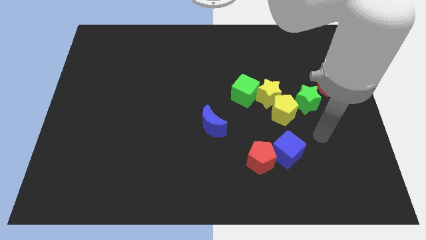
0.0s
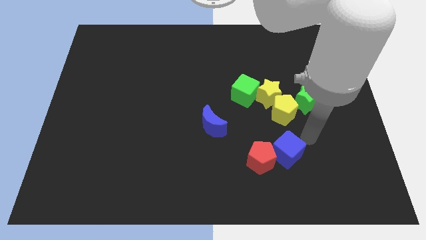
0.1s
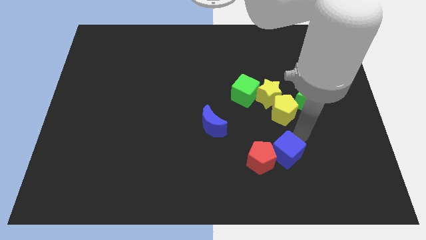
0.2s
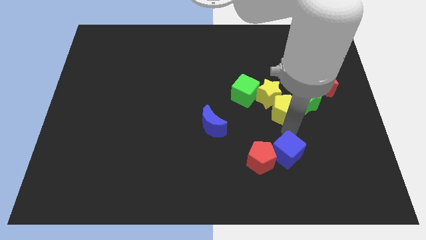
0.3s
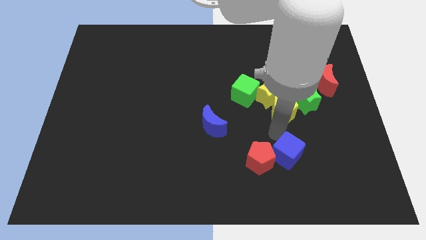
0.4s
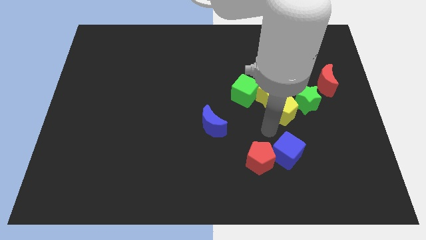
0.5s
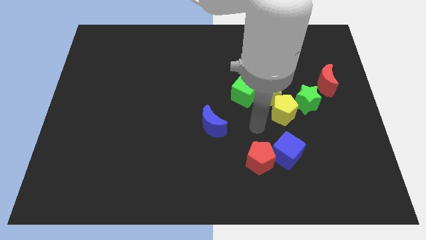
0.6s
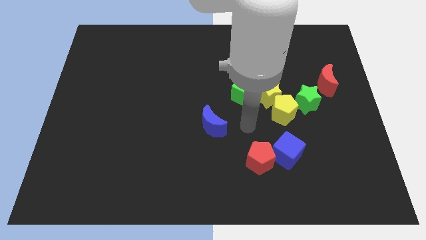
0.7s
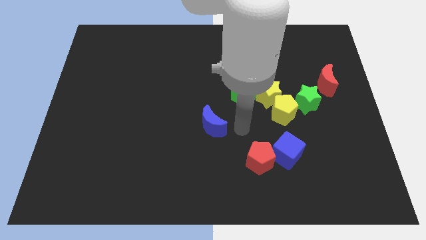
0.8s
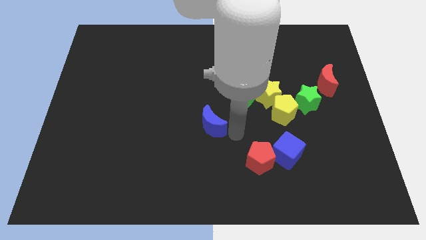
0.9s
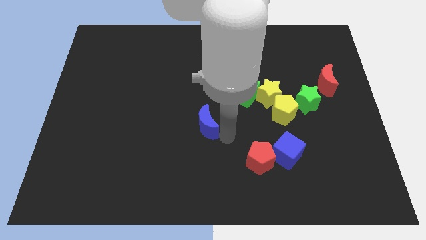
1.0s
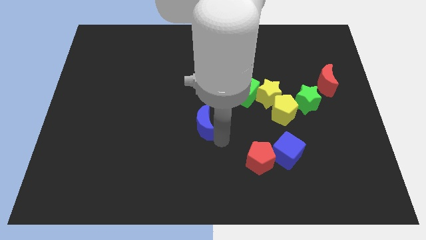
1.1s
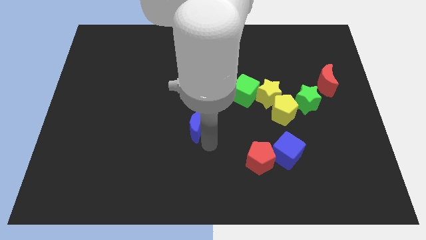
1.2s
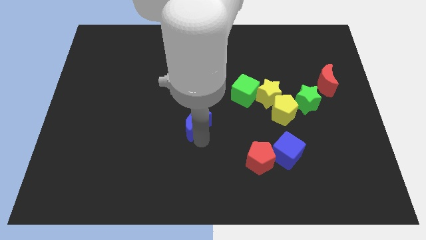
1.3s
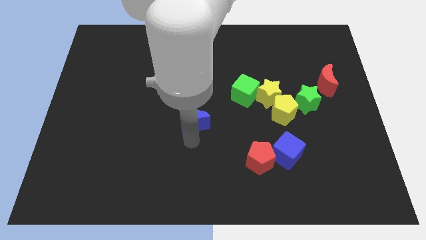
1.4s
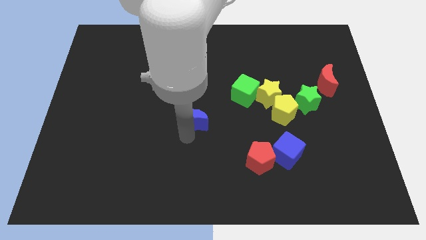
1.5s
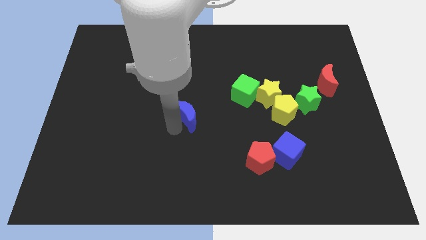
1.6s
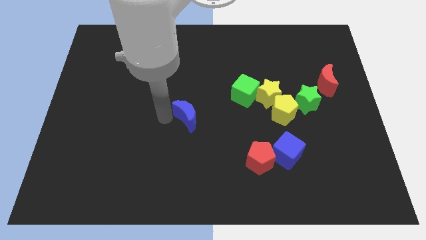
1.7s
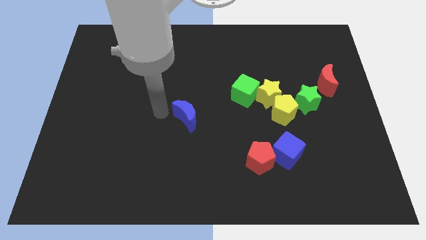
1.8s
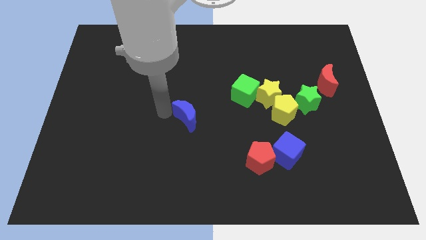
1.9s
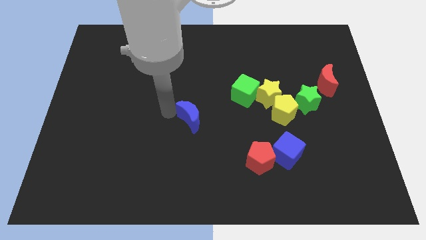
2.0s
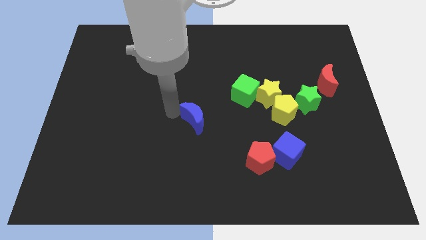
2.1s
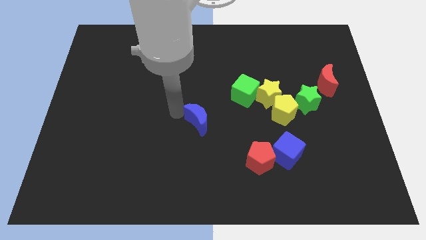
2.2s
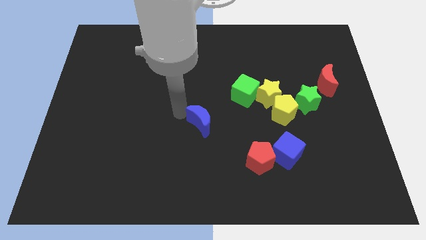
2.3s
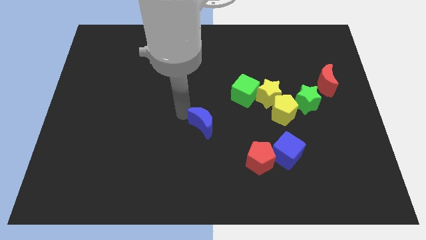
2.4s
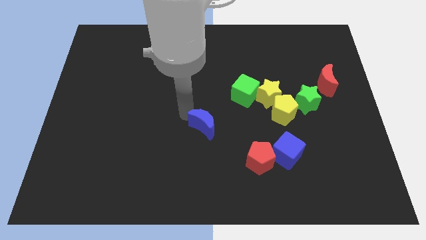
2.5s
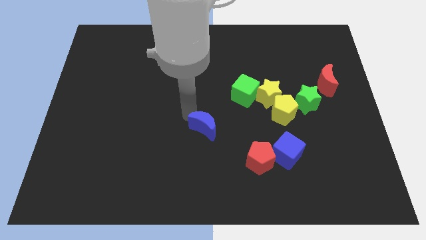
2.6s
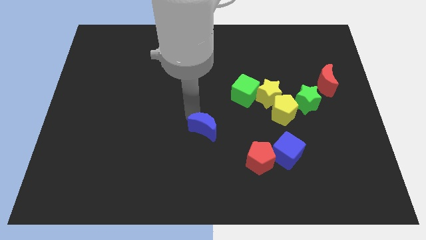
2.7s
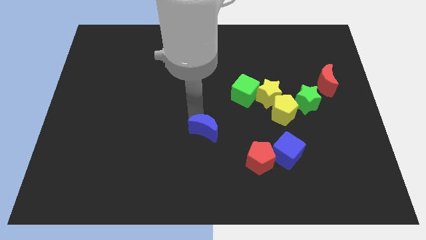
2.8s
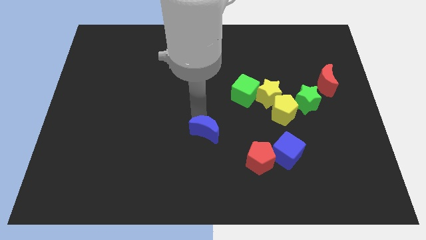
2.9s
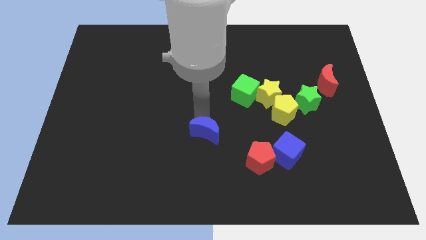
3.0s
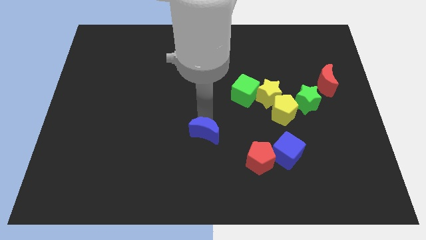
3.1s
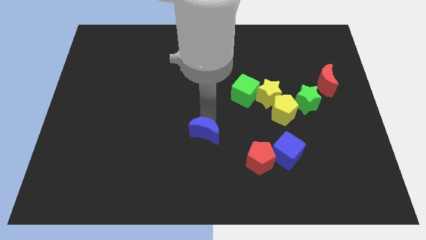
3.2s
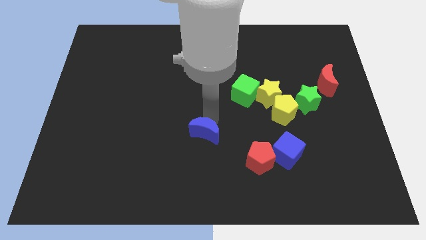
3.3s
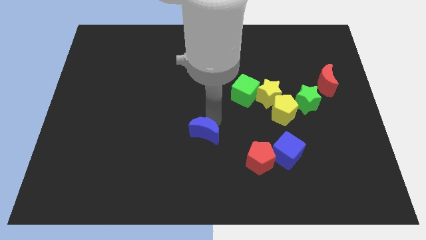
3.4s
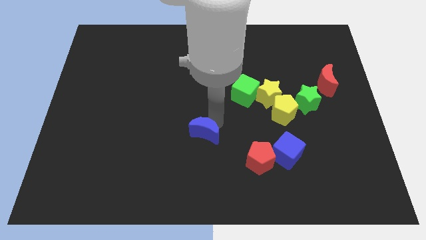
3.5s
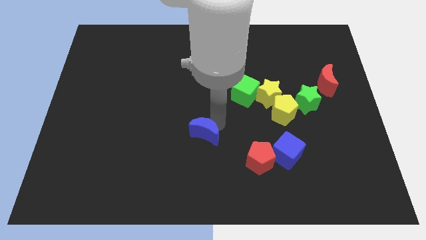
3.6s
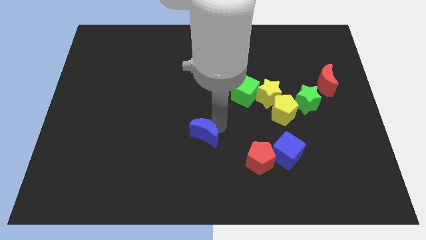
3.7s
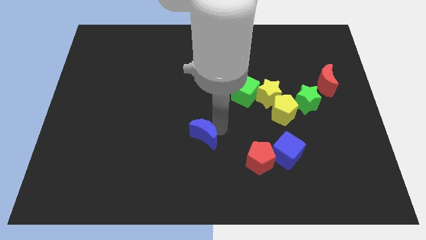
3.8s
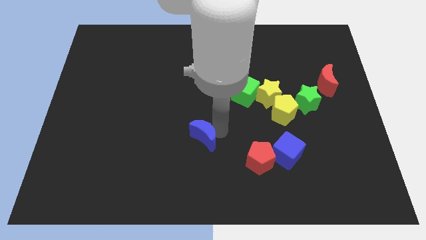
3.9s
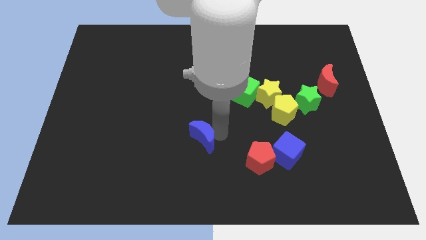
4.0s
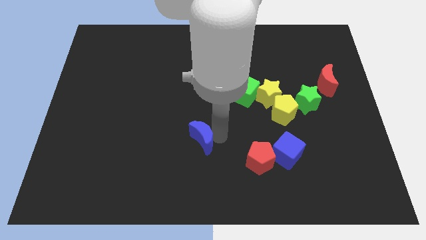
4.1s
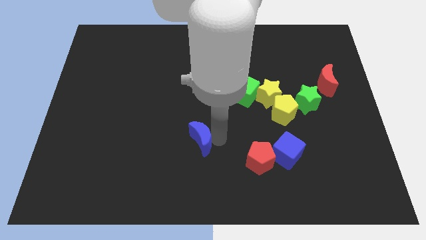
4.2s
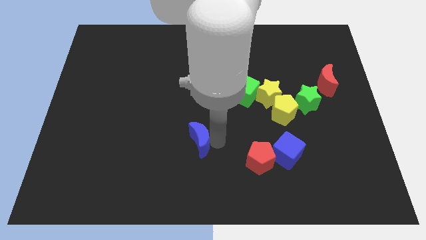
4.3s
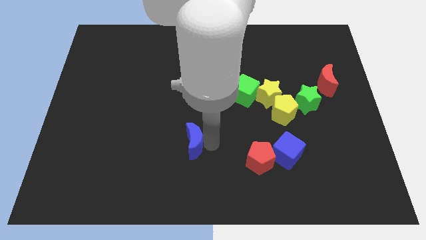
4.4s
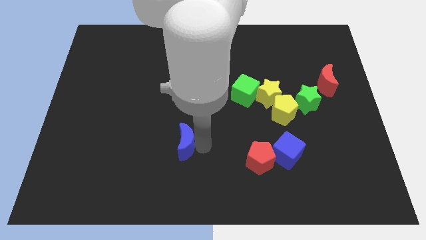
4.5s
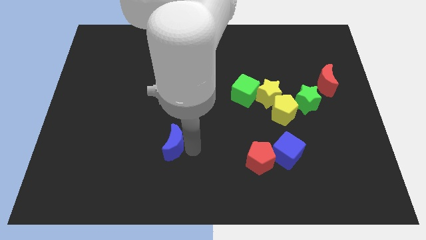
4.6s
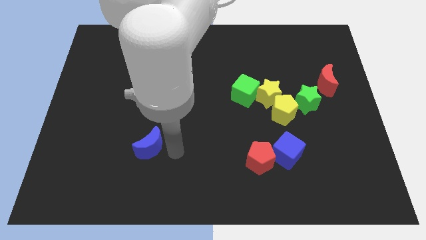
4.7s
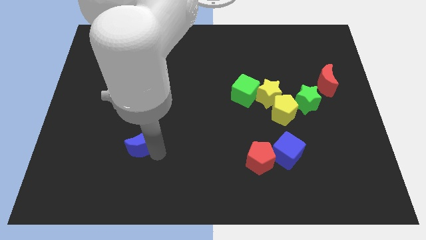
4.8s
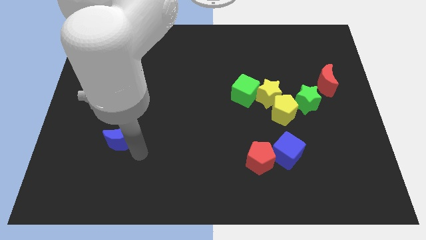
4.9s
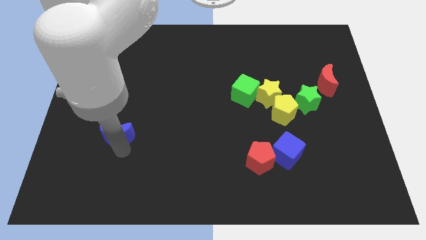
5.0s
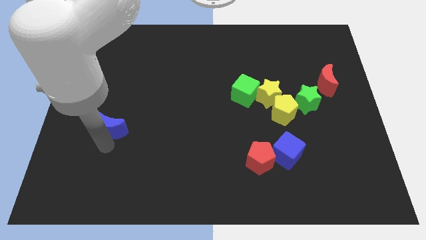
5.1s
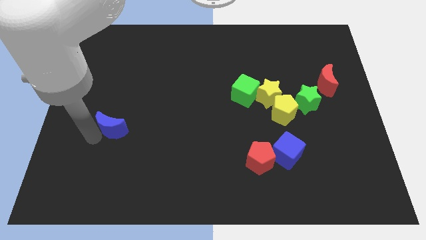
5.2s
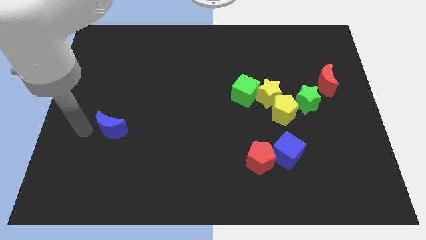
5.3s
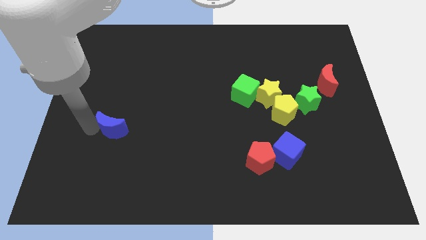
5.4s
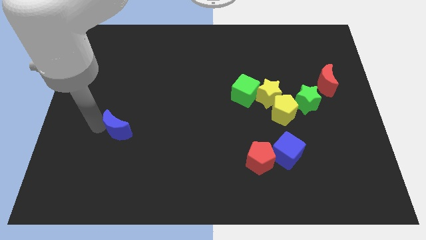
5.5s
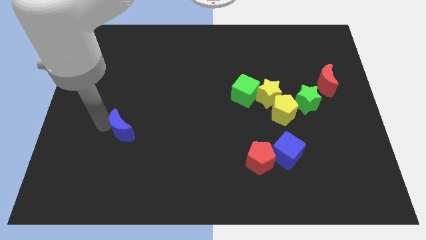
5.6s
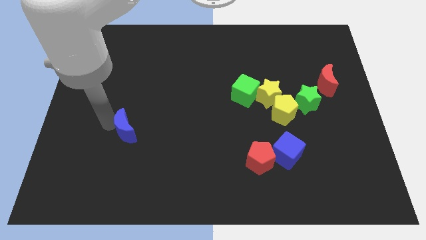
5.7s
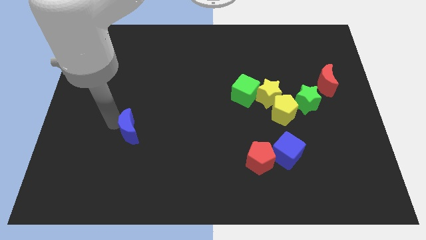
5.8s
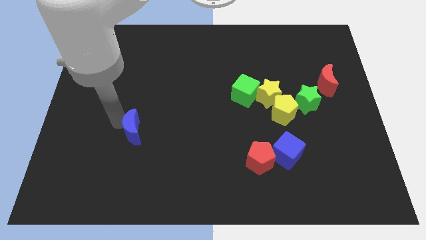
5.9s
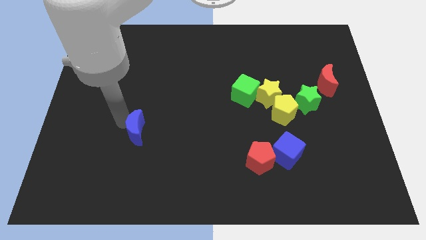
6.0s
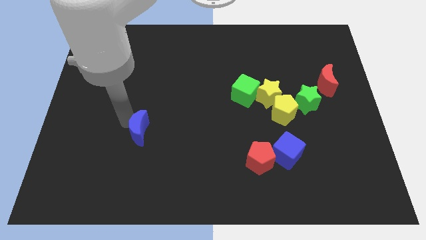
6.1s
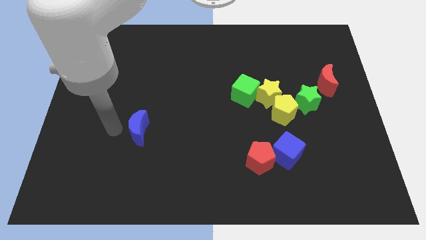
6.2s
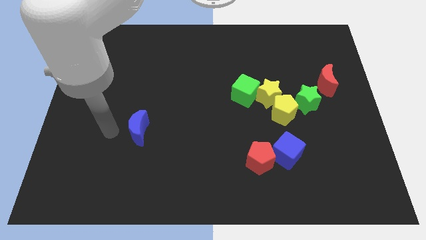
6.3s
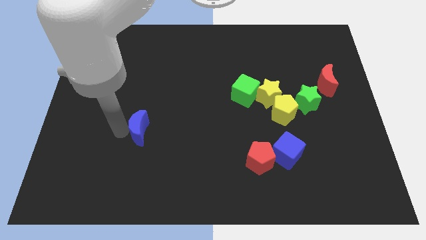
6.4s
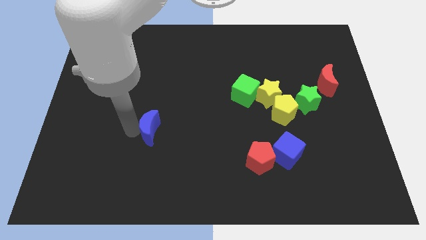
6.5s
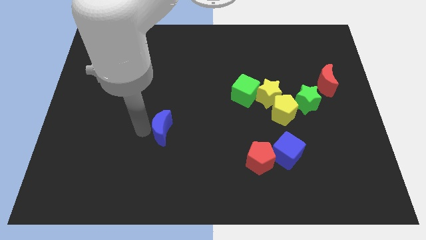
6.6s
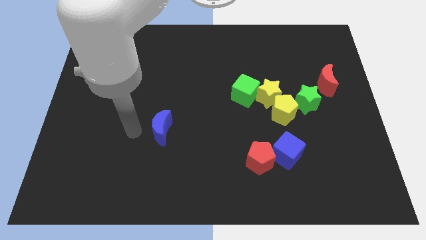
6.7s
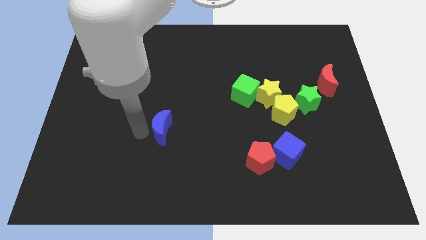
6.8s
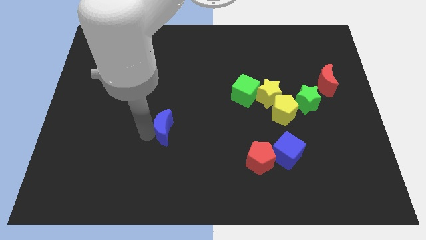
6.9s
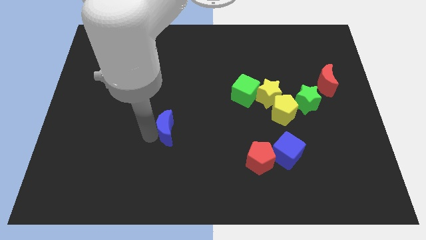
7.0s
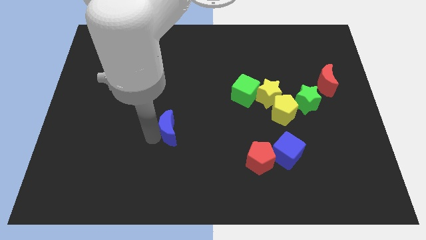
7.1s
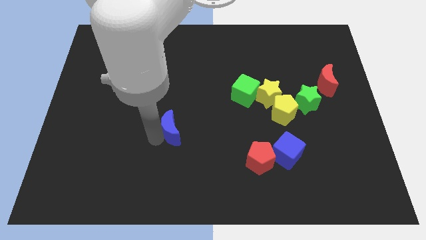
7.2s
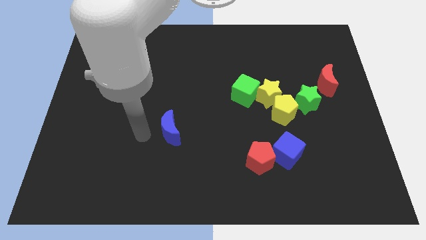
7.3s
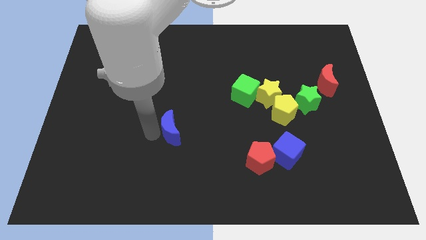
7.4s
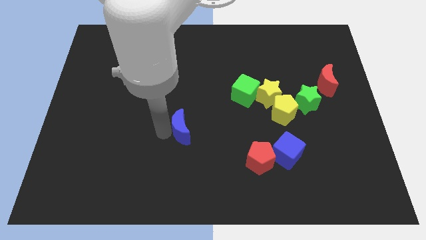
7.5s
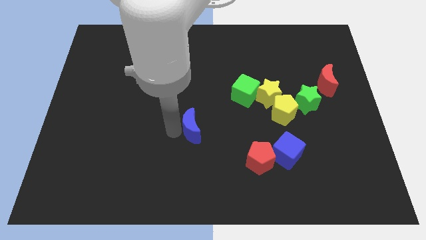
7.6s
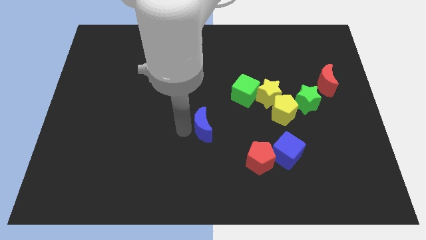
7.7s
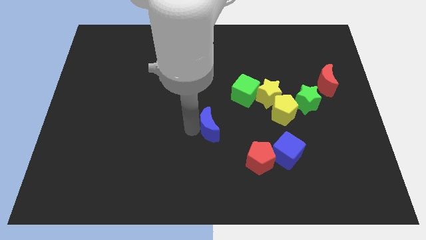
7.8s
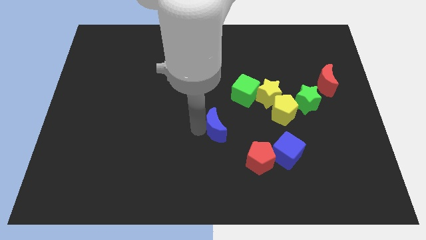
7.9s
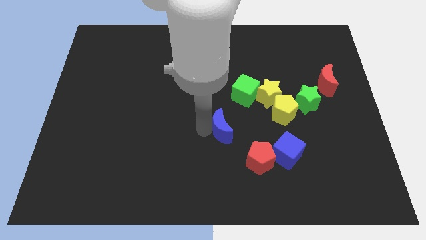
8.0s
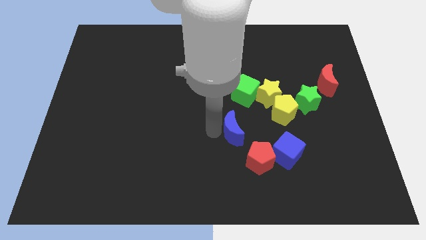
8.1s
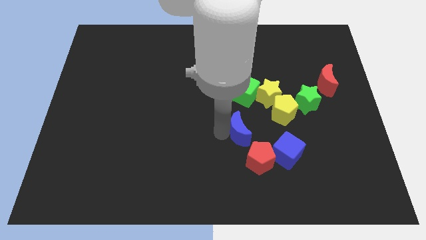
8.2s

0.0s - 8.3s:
put the blue moon above the red pentagon
